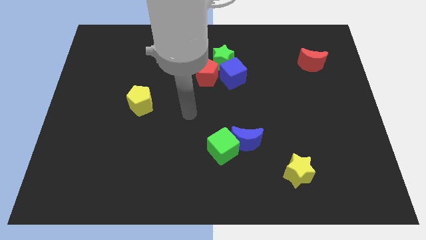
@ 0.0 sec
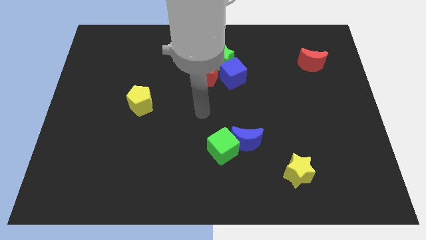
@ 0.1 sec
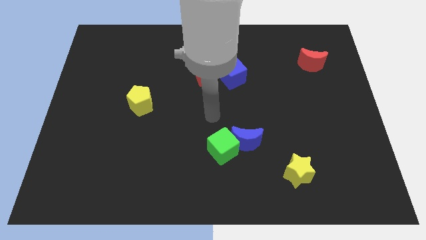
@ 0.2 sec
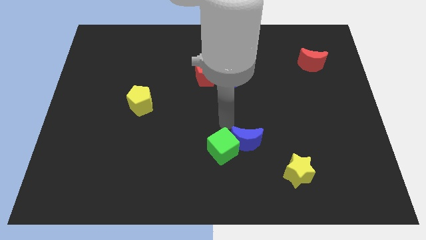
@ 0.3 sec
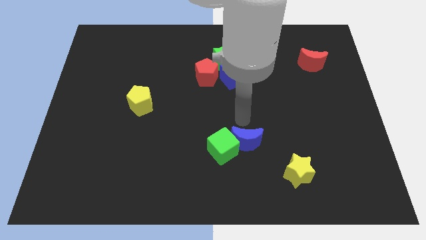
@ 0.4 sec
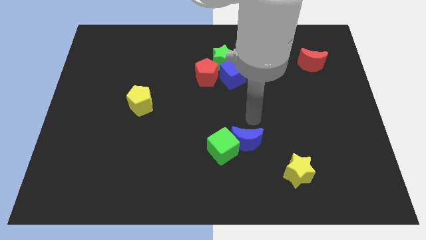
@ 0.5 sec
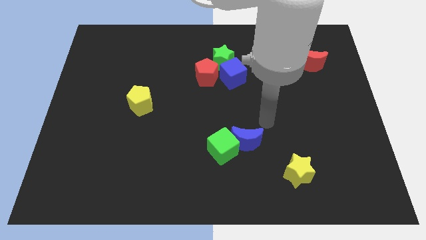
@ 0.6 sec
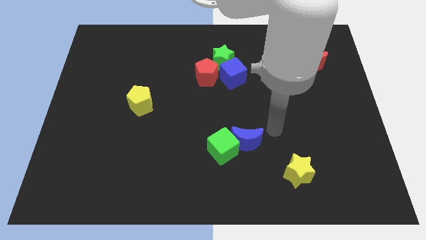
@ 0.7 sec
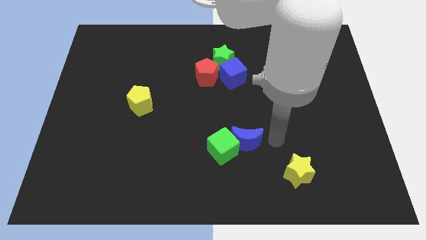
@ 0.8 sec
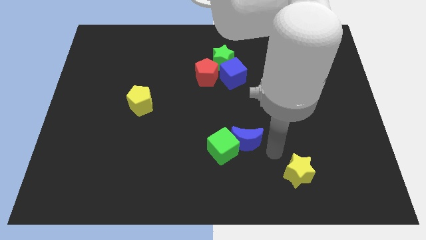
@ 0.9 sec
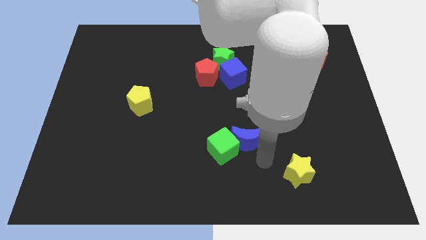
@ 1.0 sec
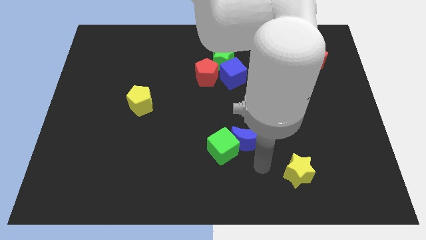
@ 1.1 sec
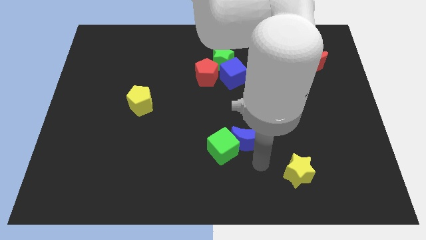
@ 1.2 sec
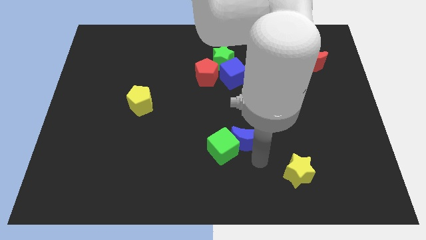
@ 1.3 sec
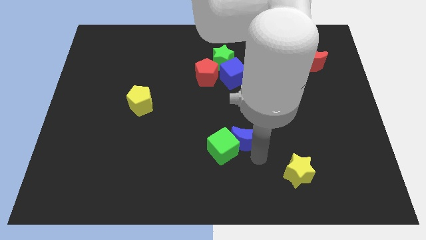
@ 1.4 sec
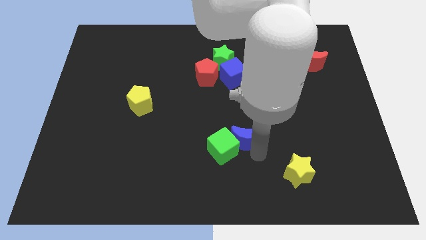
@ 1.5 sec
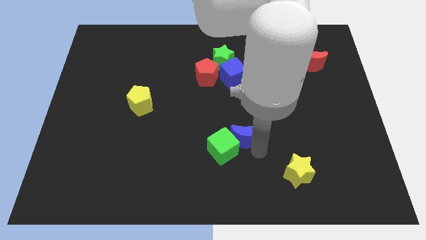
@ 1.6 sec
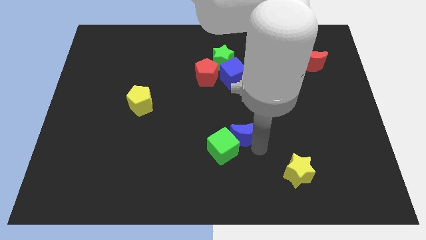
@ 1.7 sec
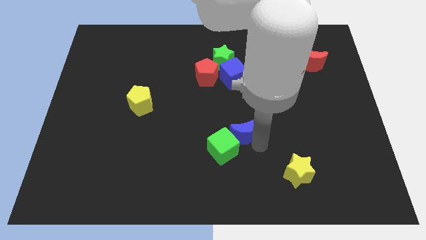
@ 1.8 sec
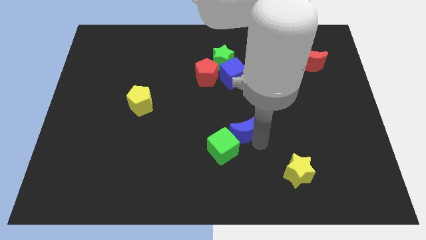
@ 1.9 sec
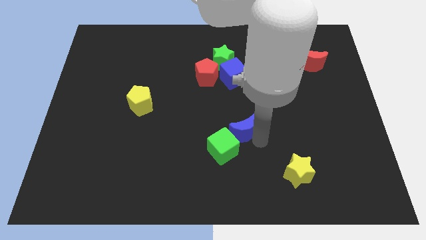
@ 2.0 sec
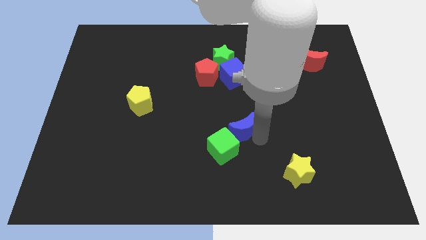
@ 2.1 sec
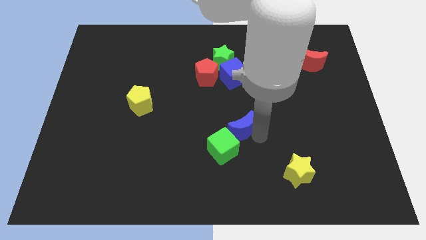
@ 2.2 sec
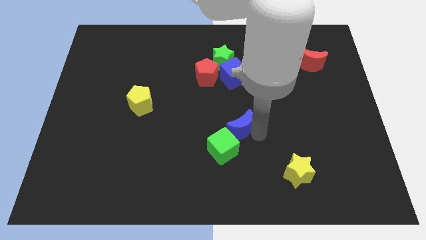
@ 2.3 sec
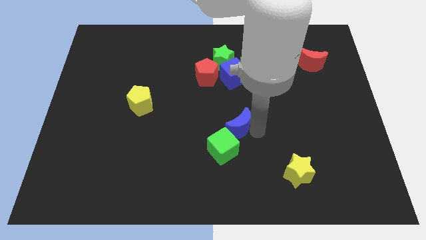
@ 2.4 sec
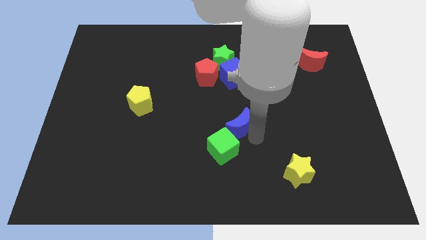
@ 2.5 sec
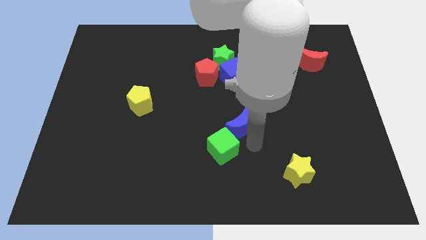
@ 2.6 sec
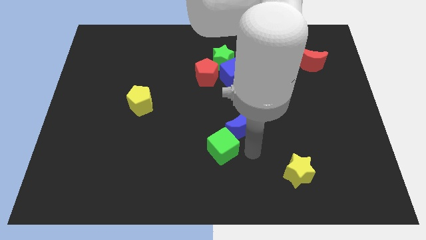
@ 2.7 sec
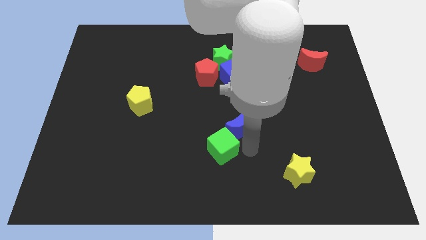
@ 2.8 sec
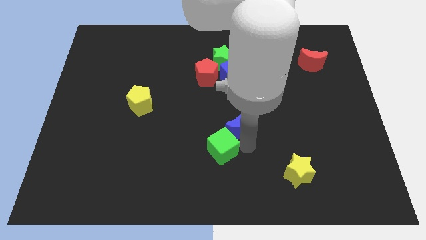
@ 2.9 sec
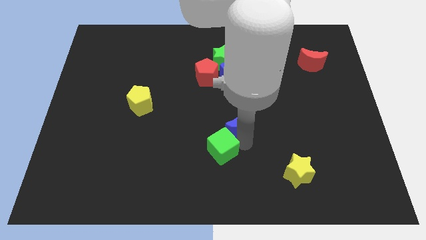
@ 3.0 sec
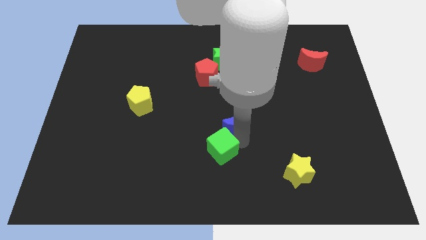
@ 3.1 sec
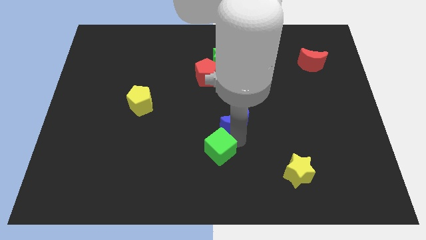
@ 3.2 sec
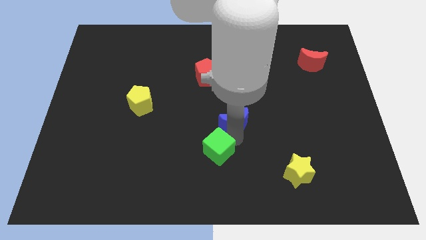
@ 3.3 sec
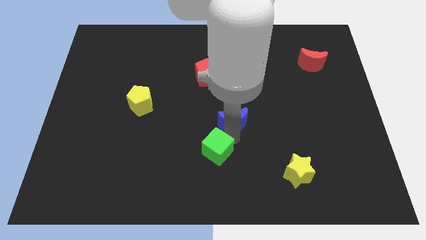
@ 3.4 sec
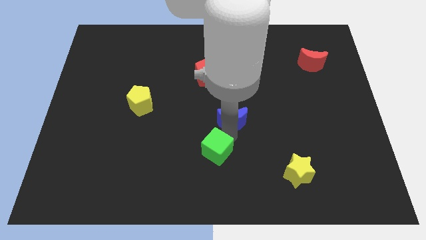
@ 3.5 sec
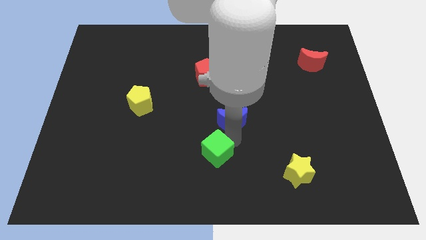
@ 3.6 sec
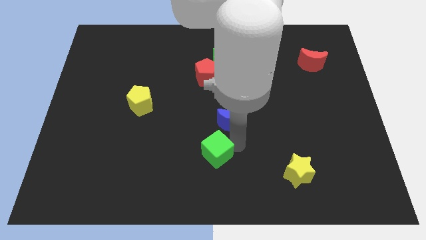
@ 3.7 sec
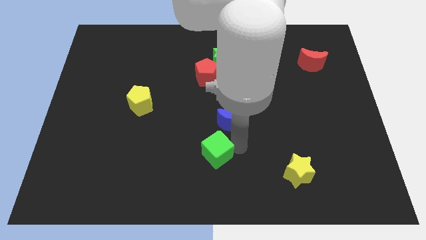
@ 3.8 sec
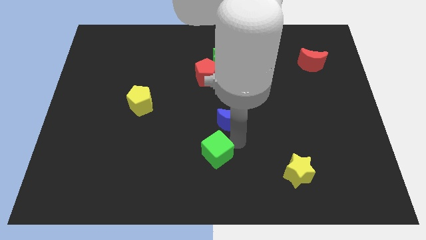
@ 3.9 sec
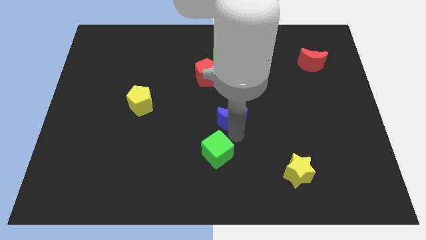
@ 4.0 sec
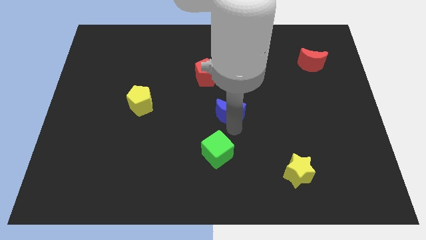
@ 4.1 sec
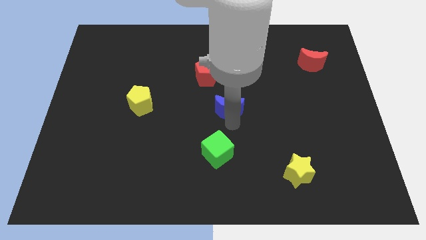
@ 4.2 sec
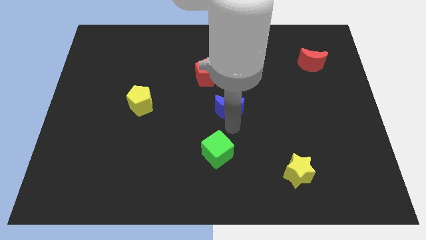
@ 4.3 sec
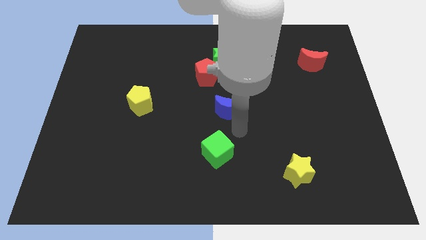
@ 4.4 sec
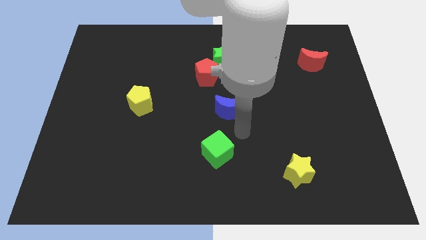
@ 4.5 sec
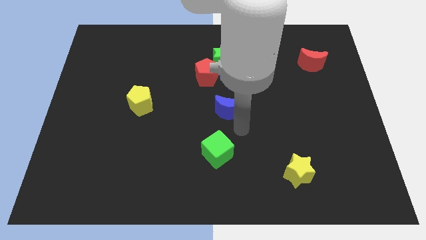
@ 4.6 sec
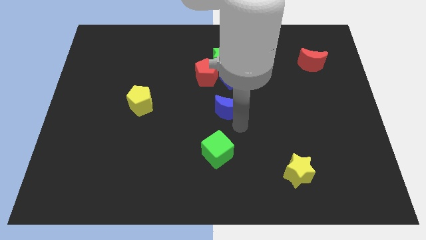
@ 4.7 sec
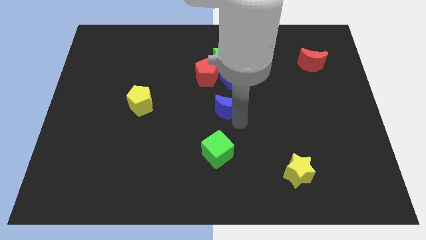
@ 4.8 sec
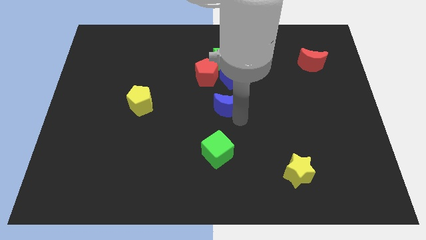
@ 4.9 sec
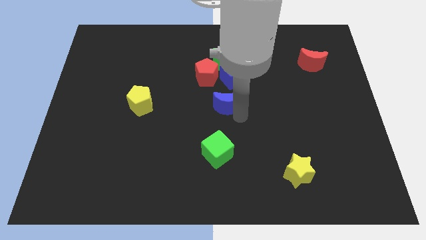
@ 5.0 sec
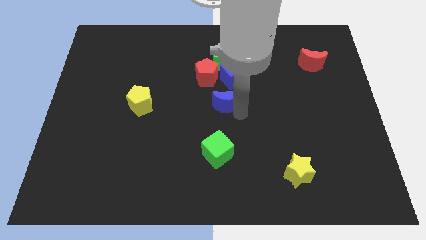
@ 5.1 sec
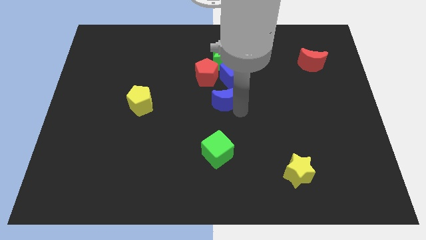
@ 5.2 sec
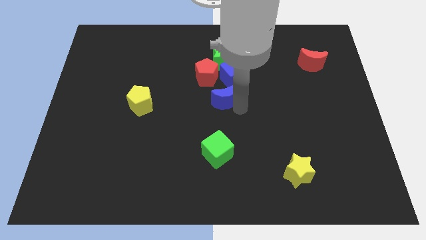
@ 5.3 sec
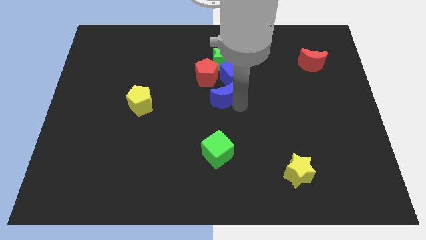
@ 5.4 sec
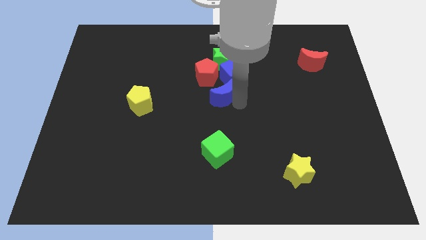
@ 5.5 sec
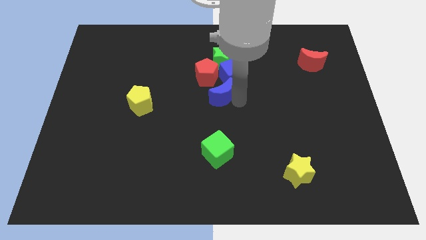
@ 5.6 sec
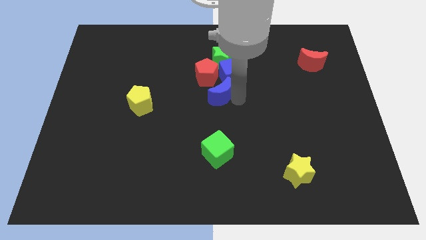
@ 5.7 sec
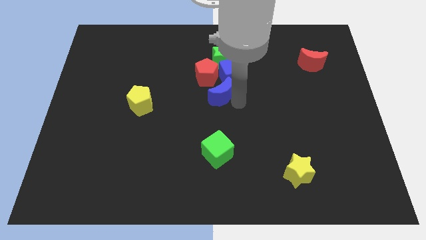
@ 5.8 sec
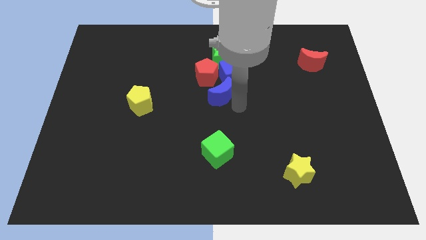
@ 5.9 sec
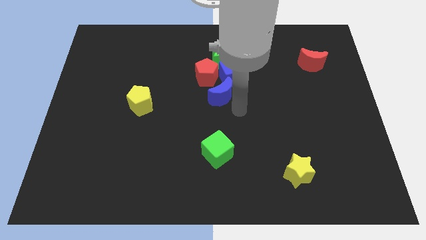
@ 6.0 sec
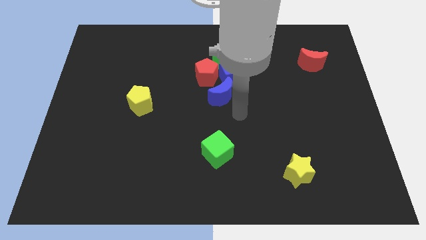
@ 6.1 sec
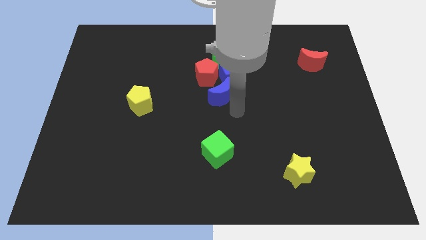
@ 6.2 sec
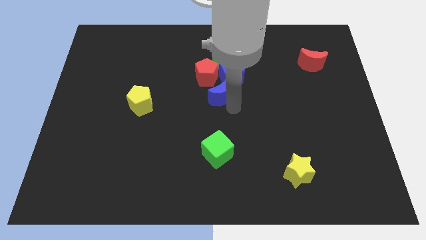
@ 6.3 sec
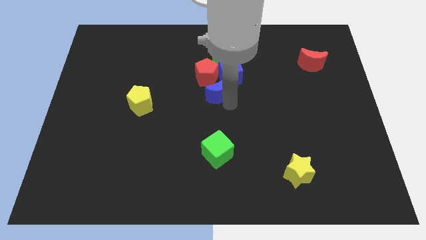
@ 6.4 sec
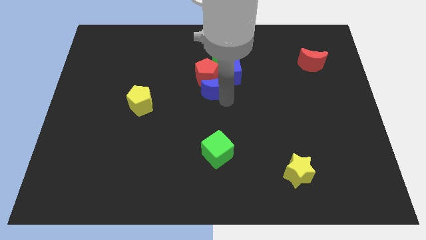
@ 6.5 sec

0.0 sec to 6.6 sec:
slide the blue moon towards the red pentagon
